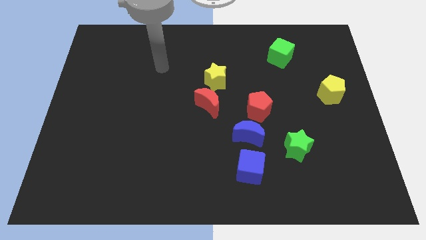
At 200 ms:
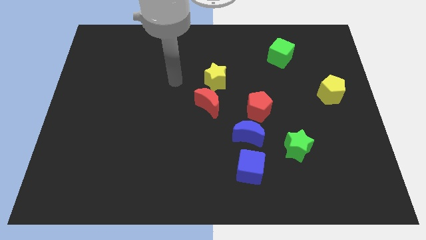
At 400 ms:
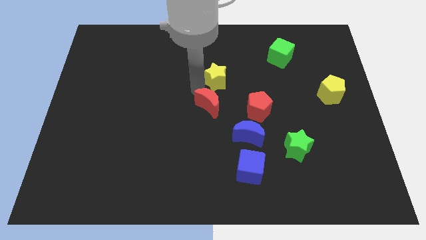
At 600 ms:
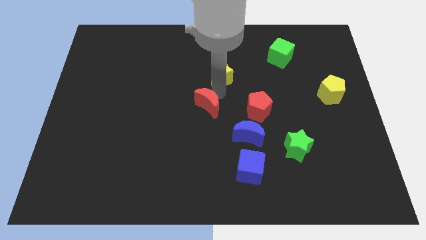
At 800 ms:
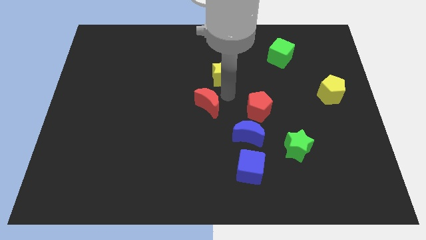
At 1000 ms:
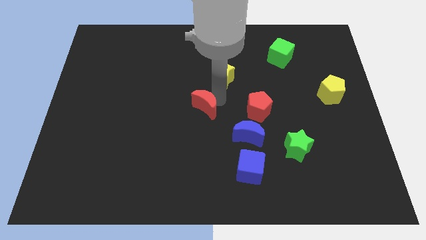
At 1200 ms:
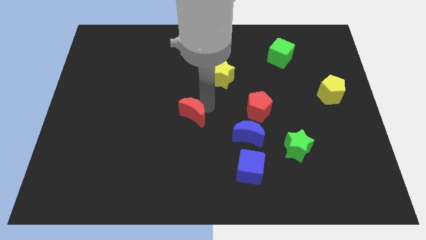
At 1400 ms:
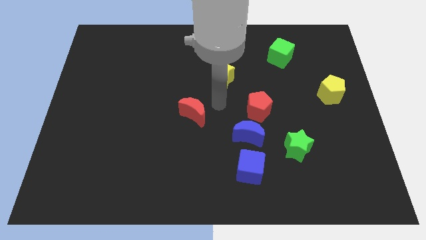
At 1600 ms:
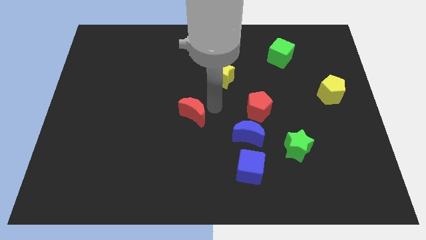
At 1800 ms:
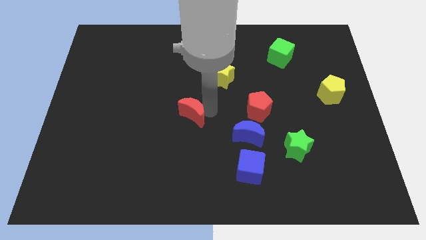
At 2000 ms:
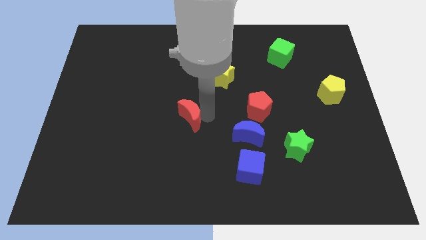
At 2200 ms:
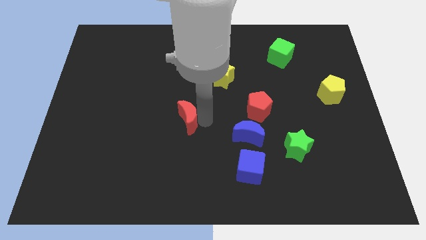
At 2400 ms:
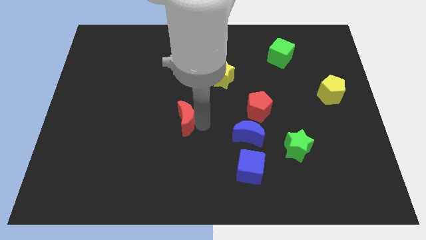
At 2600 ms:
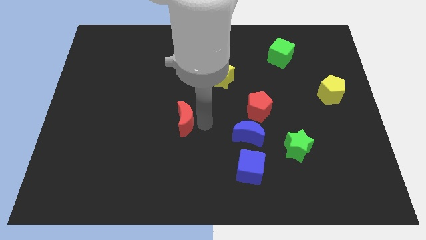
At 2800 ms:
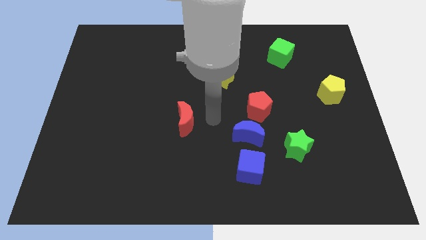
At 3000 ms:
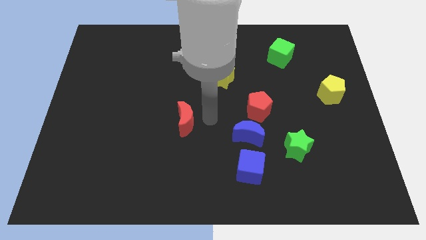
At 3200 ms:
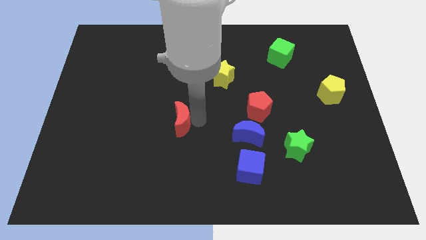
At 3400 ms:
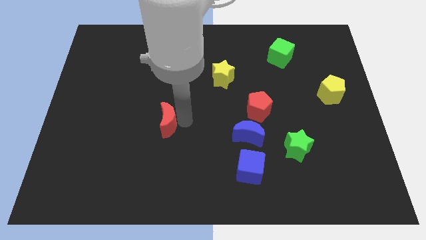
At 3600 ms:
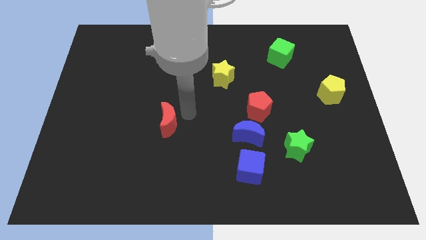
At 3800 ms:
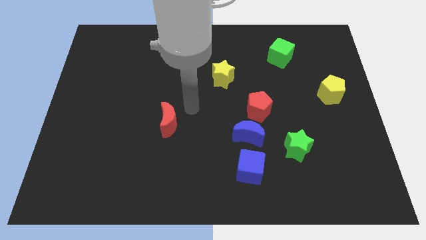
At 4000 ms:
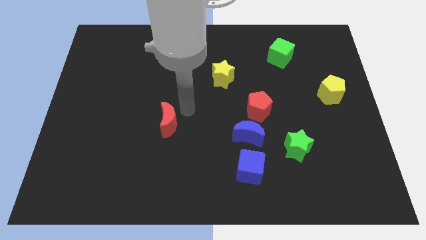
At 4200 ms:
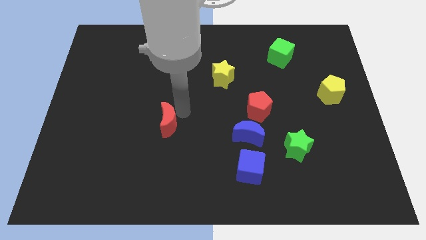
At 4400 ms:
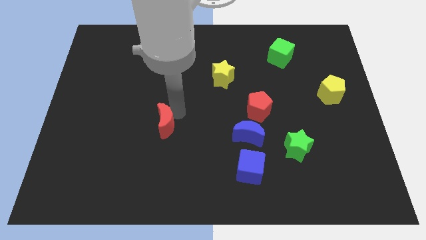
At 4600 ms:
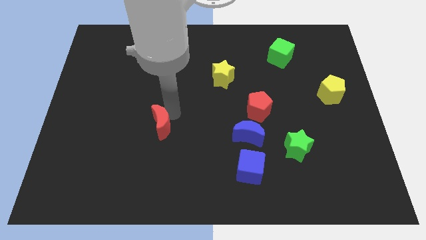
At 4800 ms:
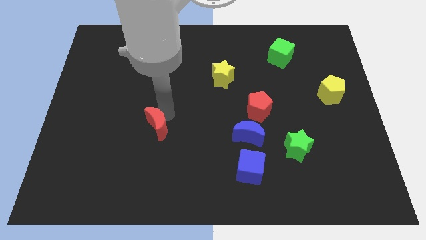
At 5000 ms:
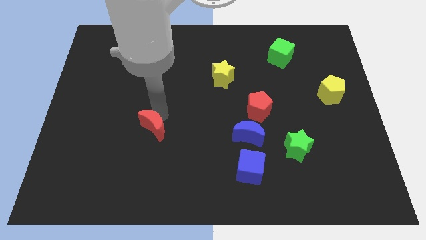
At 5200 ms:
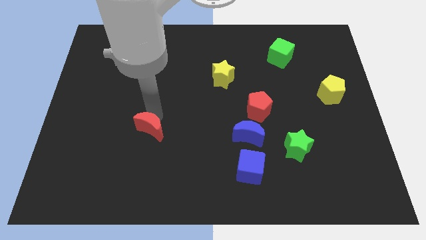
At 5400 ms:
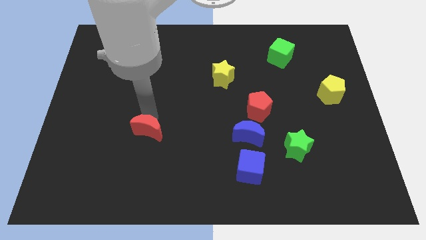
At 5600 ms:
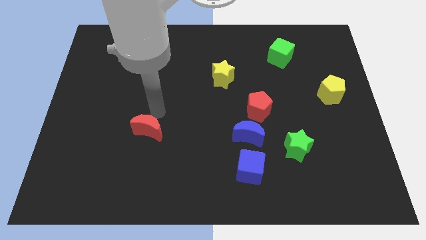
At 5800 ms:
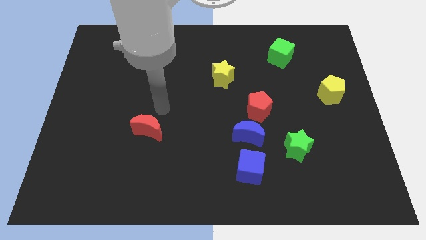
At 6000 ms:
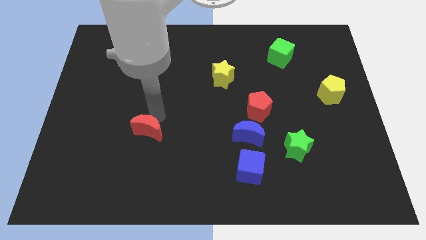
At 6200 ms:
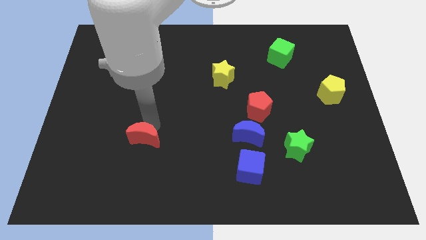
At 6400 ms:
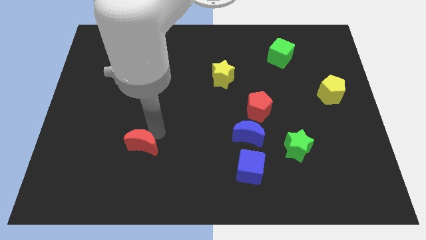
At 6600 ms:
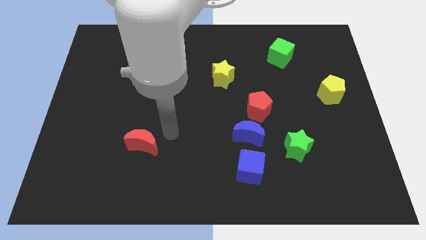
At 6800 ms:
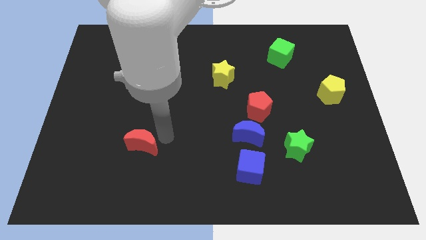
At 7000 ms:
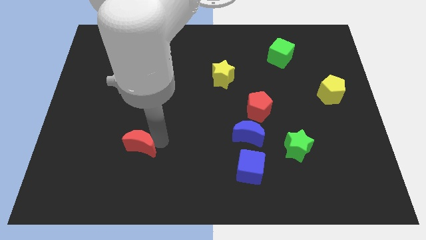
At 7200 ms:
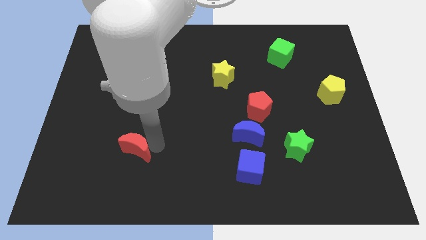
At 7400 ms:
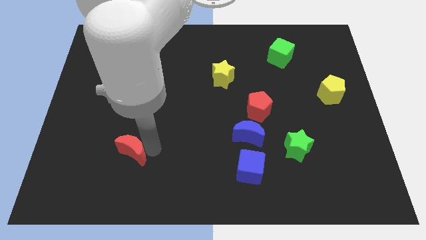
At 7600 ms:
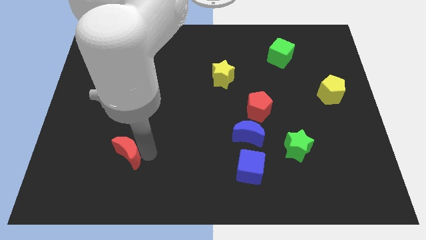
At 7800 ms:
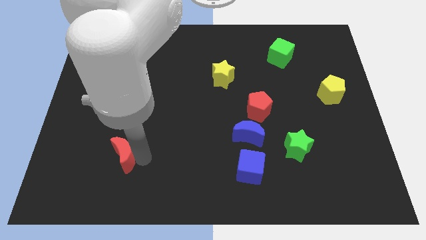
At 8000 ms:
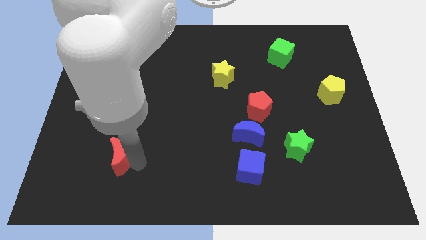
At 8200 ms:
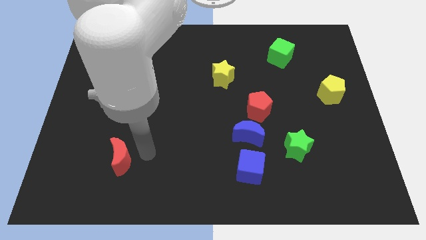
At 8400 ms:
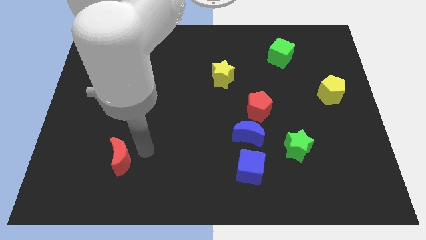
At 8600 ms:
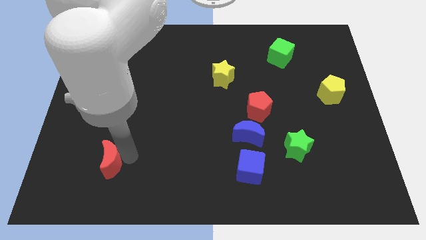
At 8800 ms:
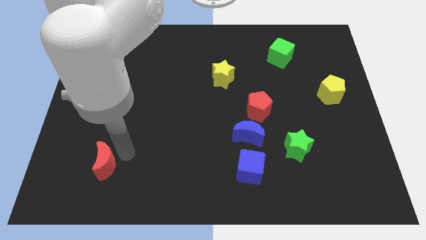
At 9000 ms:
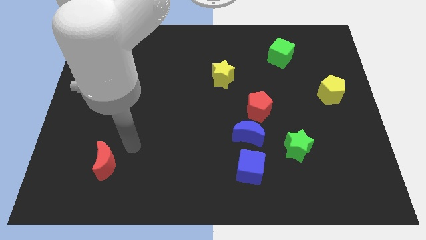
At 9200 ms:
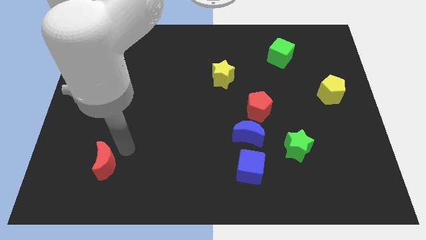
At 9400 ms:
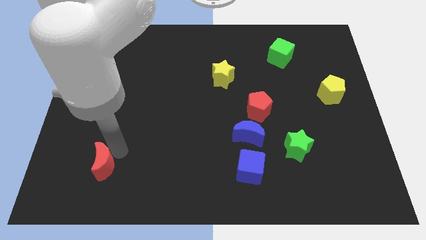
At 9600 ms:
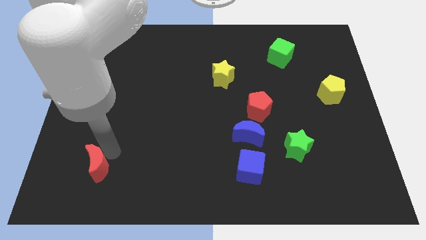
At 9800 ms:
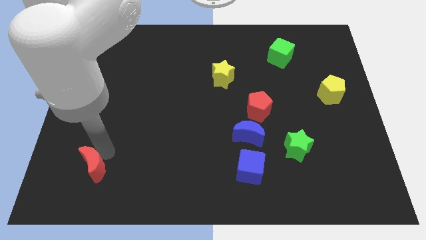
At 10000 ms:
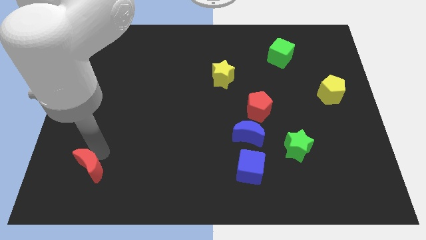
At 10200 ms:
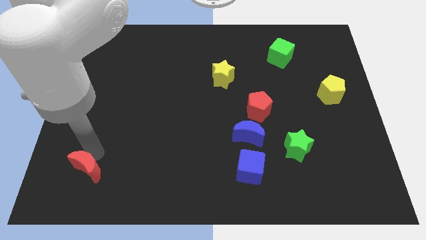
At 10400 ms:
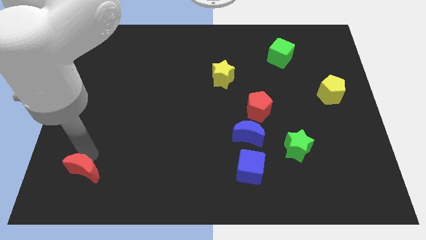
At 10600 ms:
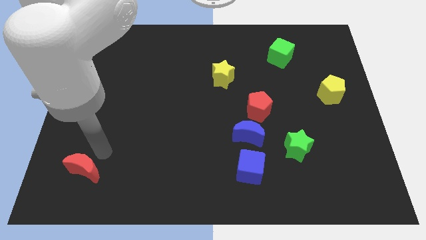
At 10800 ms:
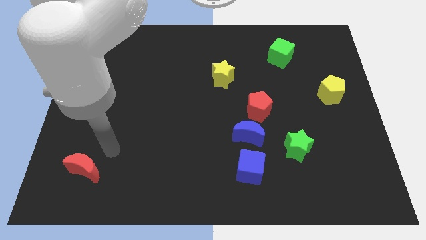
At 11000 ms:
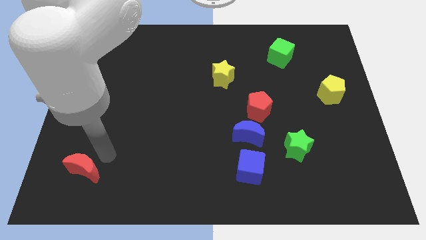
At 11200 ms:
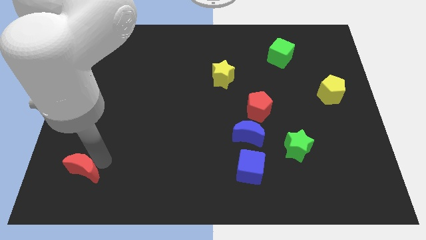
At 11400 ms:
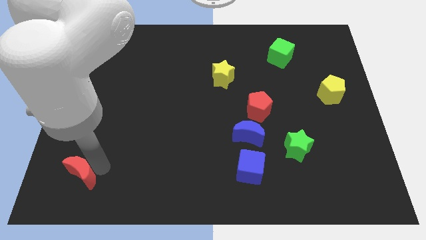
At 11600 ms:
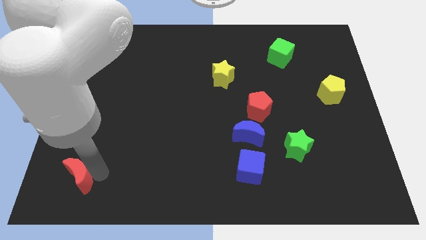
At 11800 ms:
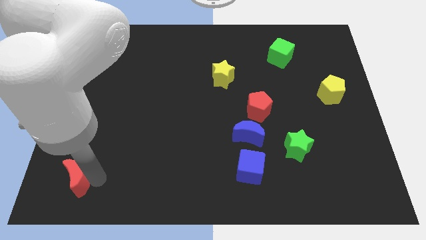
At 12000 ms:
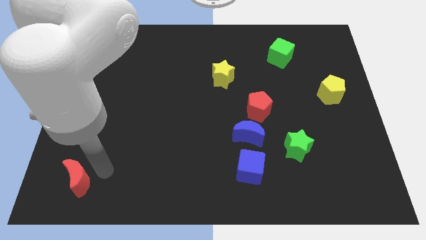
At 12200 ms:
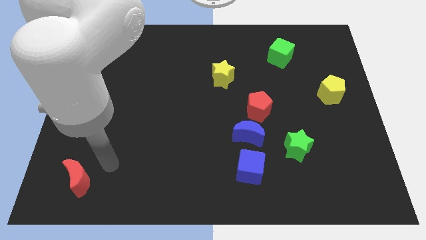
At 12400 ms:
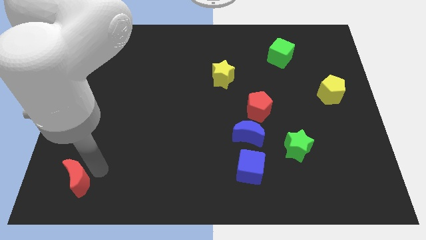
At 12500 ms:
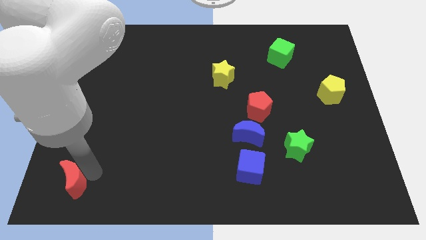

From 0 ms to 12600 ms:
slide the red moon to the bottom left corner

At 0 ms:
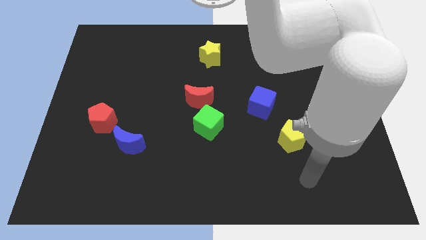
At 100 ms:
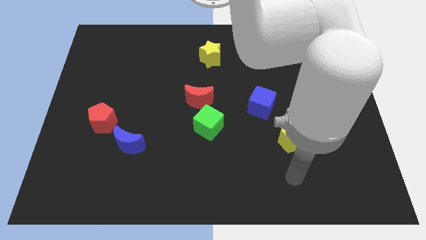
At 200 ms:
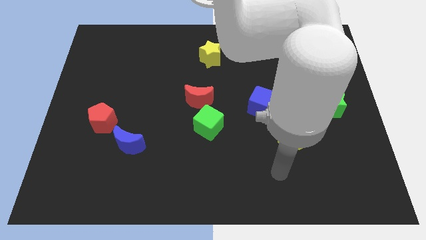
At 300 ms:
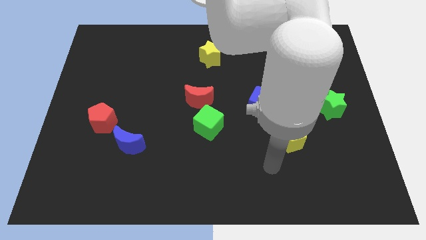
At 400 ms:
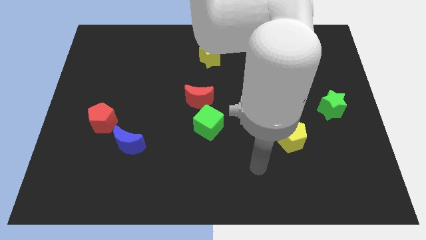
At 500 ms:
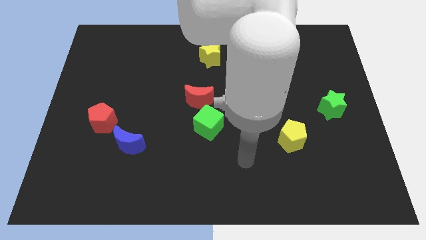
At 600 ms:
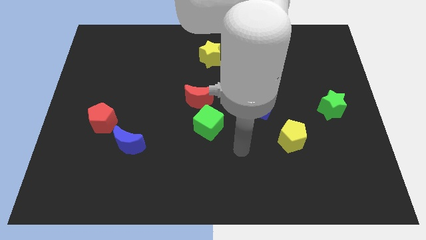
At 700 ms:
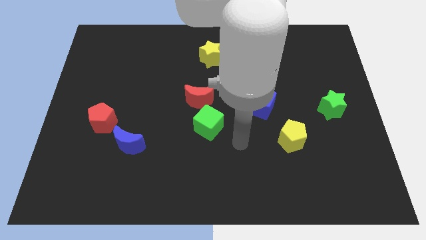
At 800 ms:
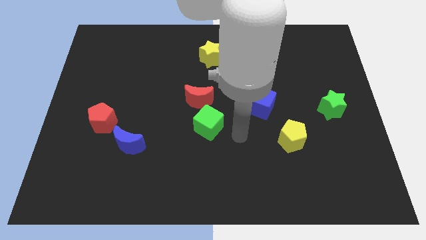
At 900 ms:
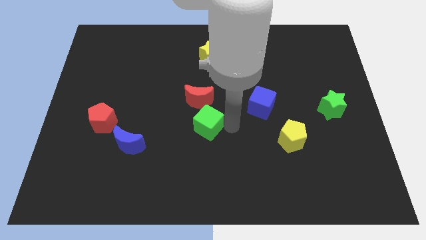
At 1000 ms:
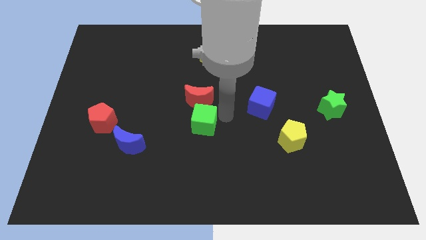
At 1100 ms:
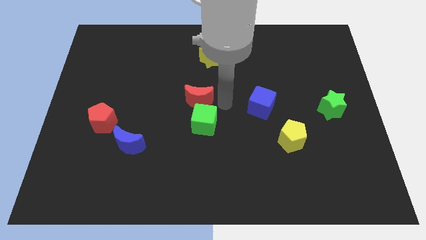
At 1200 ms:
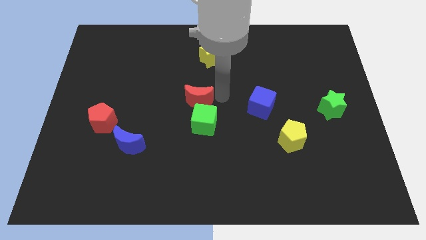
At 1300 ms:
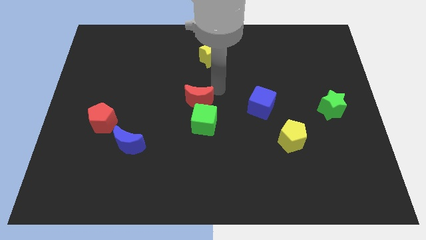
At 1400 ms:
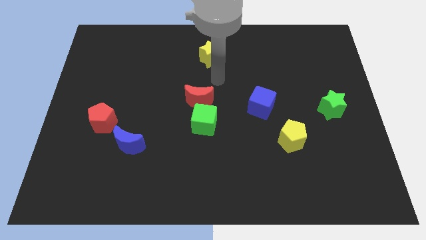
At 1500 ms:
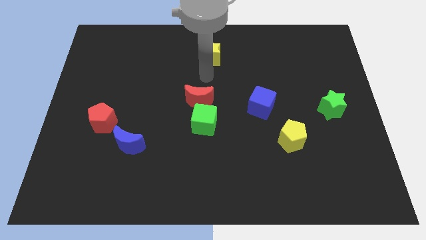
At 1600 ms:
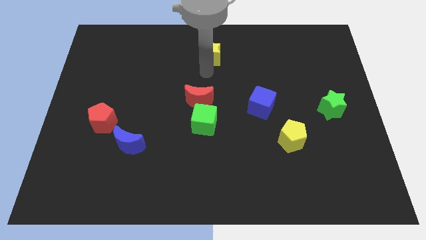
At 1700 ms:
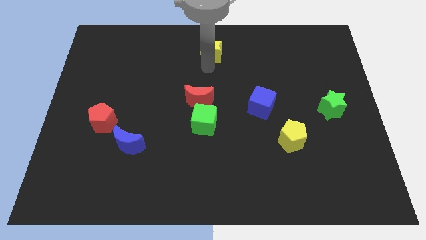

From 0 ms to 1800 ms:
put the yellow star to the towards your base
